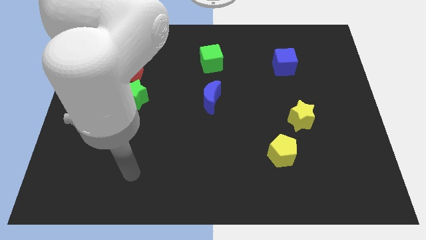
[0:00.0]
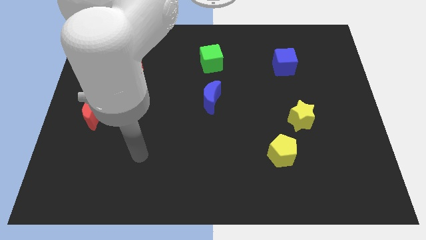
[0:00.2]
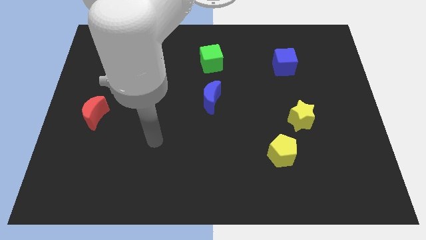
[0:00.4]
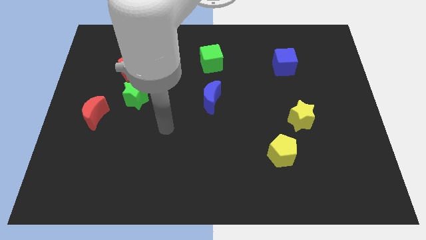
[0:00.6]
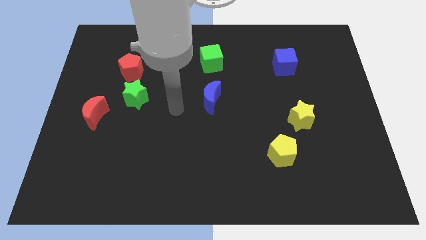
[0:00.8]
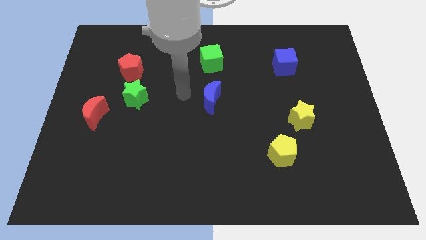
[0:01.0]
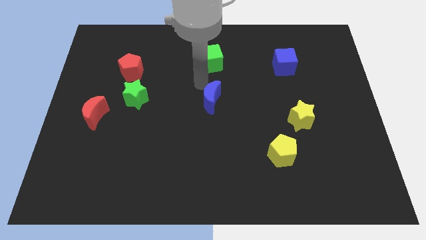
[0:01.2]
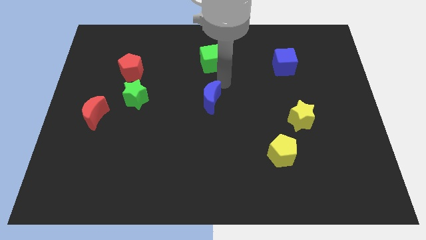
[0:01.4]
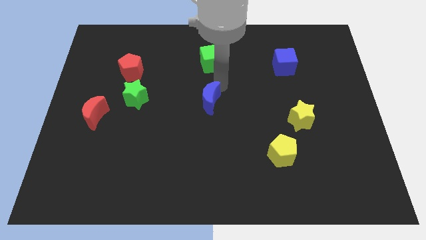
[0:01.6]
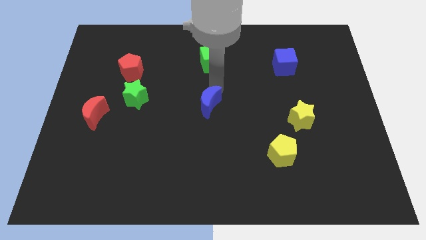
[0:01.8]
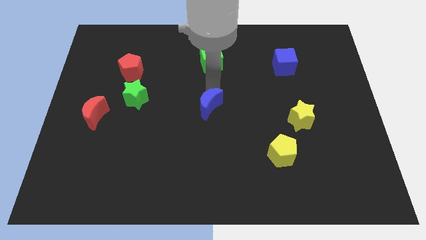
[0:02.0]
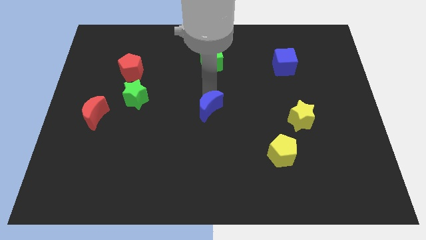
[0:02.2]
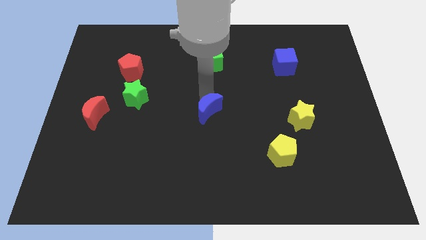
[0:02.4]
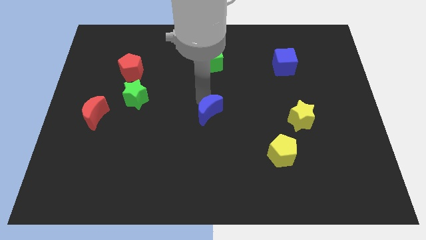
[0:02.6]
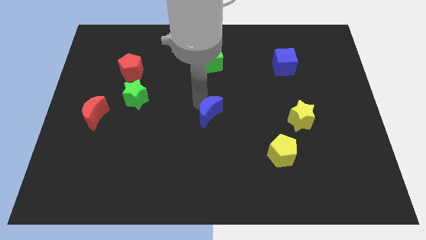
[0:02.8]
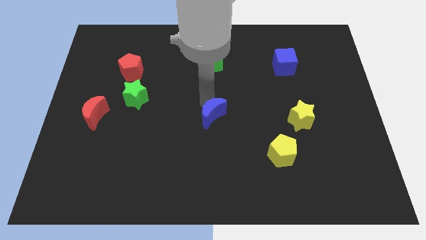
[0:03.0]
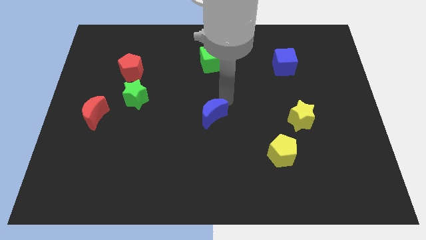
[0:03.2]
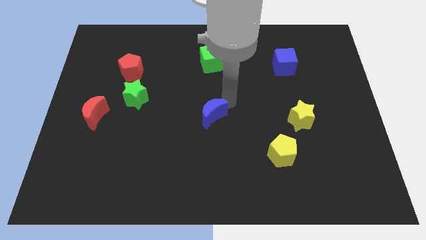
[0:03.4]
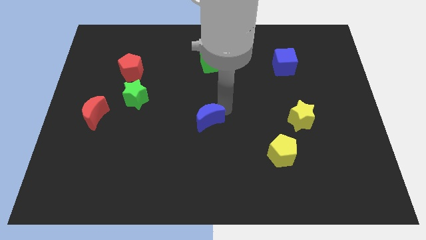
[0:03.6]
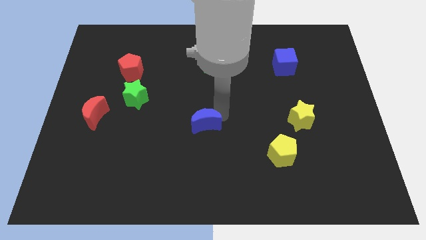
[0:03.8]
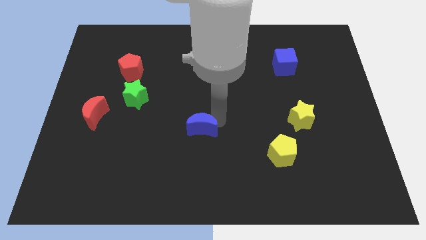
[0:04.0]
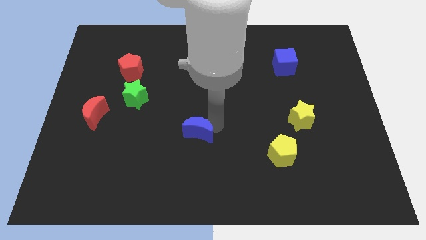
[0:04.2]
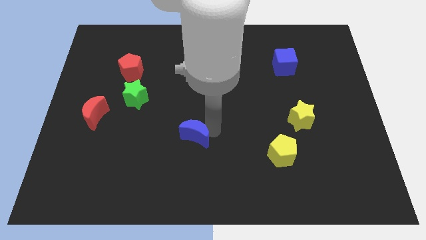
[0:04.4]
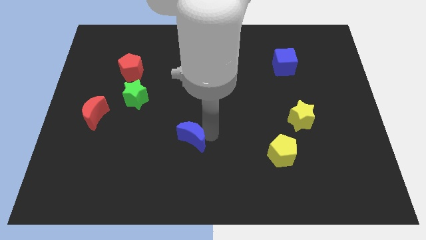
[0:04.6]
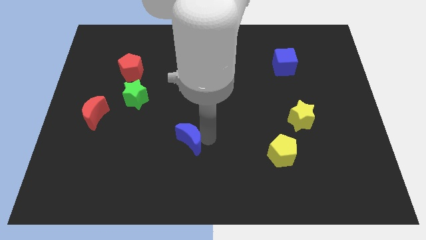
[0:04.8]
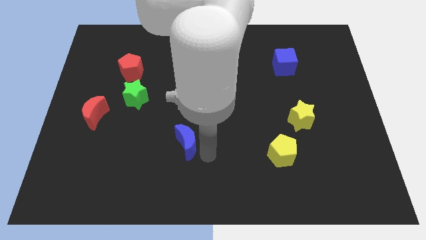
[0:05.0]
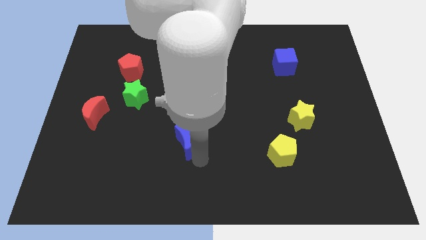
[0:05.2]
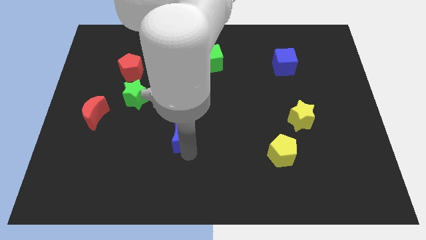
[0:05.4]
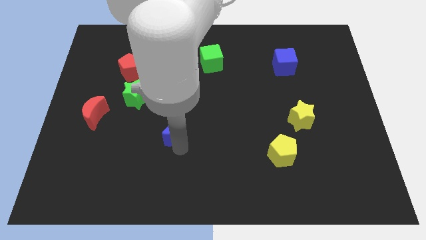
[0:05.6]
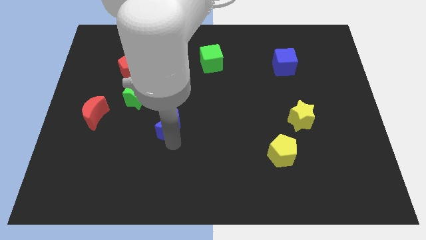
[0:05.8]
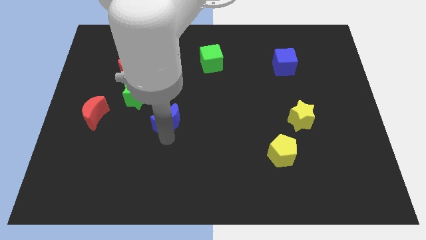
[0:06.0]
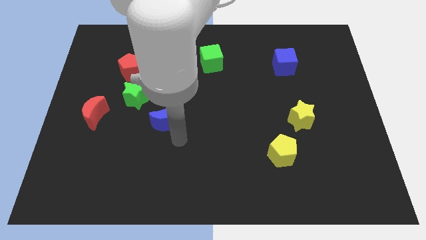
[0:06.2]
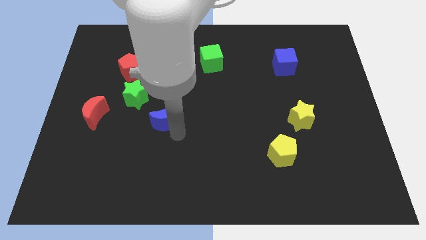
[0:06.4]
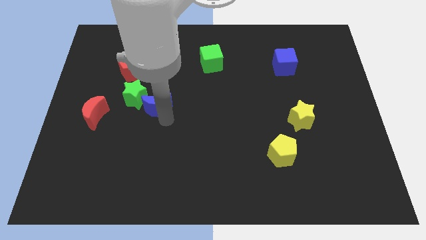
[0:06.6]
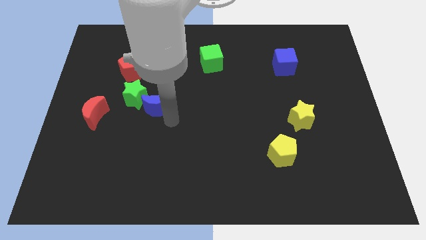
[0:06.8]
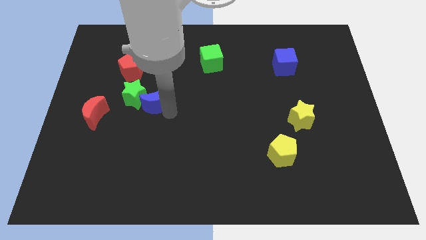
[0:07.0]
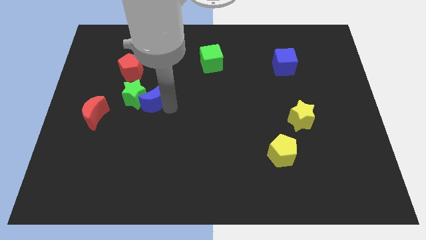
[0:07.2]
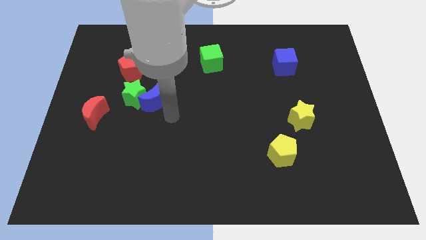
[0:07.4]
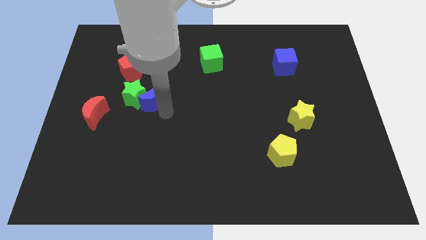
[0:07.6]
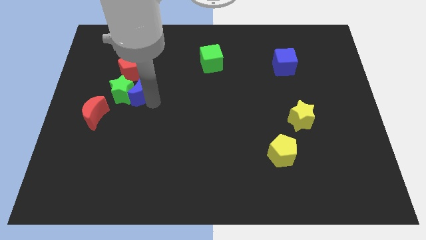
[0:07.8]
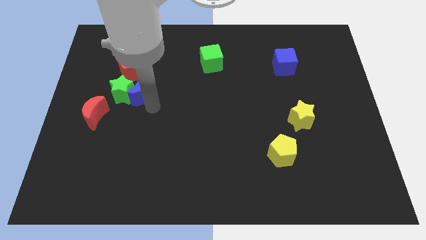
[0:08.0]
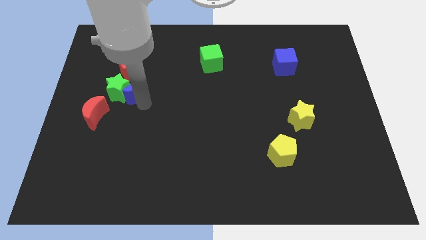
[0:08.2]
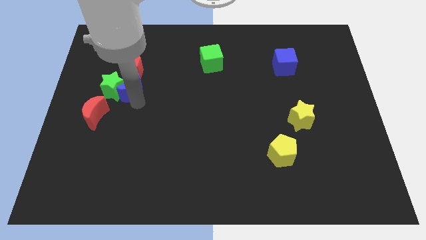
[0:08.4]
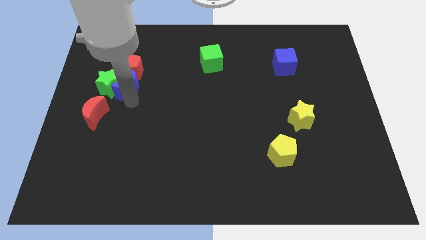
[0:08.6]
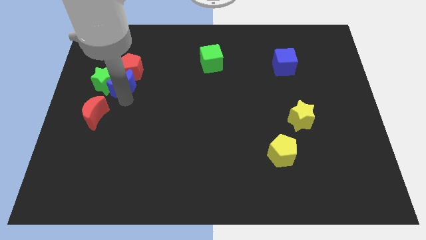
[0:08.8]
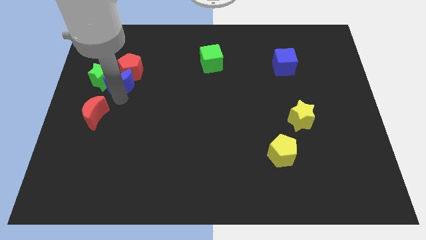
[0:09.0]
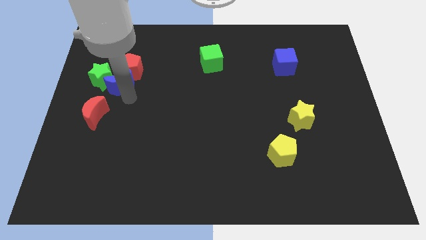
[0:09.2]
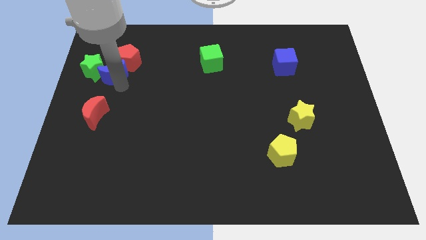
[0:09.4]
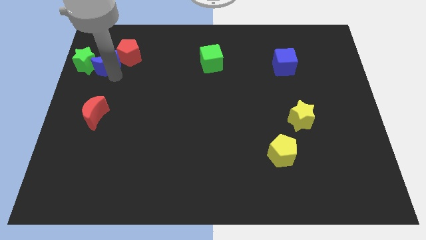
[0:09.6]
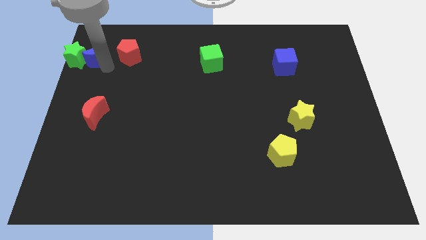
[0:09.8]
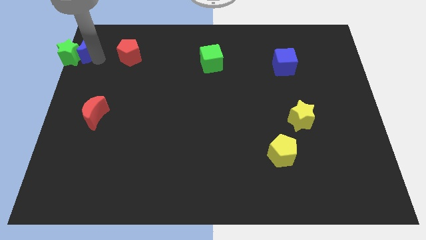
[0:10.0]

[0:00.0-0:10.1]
move the blue moon to the top left corner

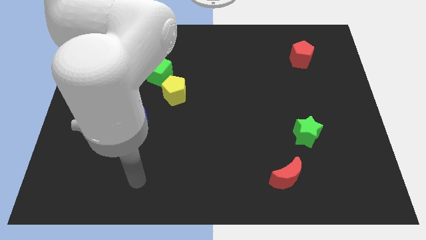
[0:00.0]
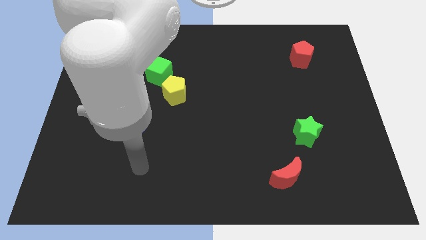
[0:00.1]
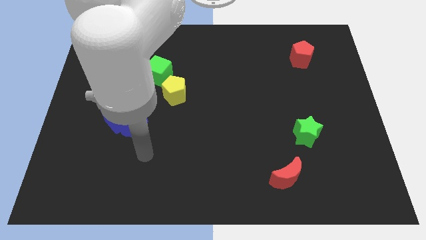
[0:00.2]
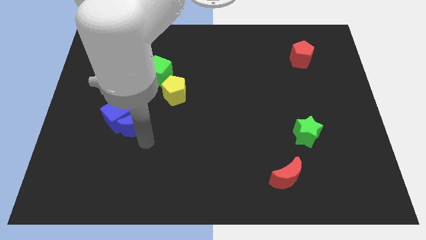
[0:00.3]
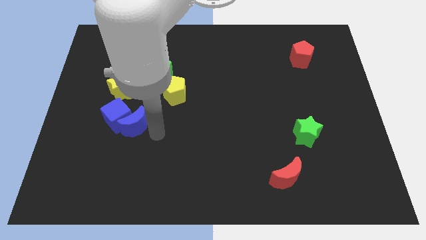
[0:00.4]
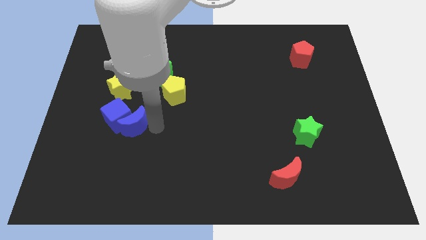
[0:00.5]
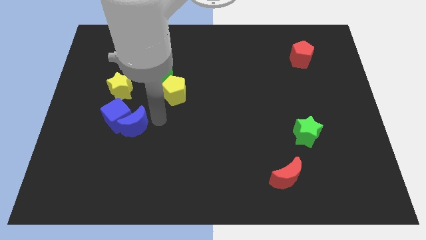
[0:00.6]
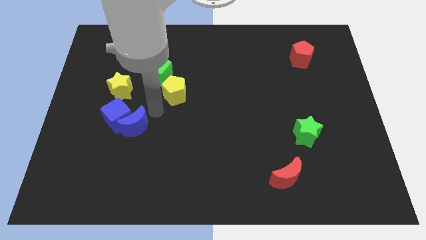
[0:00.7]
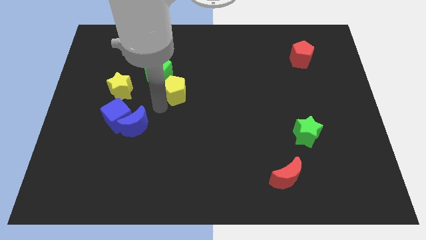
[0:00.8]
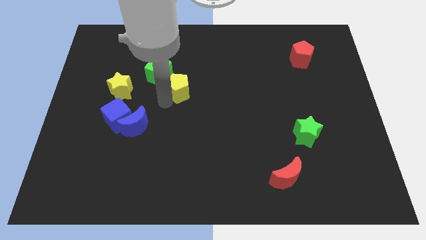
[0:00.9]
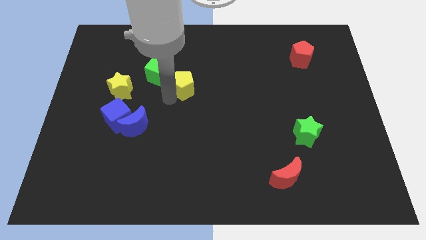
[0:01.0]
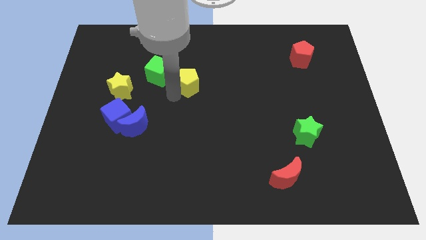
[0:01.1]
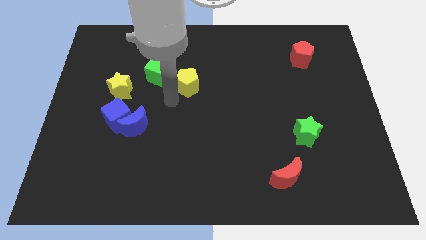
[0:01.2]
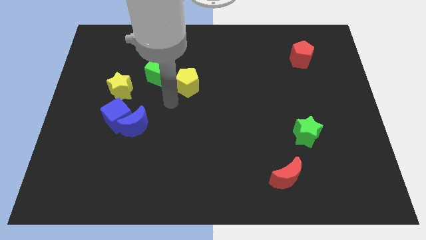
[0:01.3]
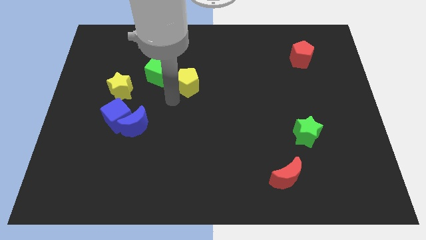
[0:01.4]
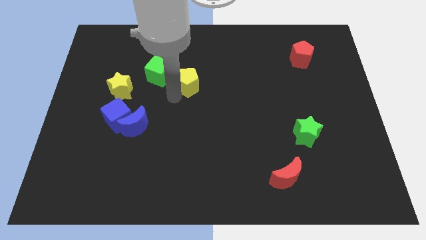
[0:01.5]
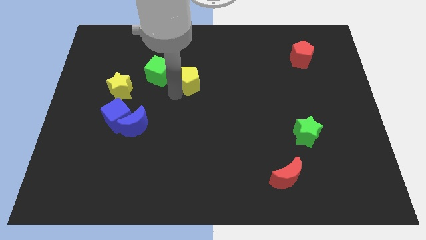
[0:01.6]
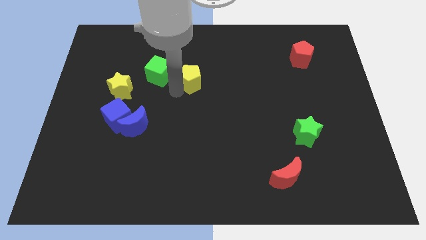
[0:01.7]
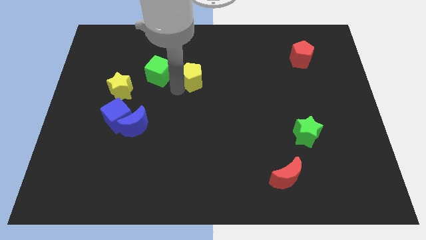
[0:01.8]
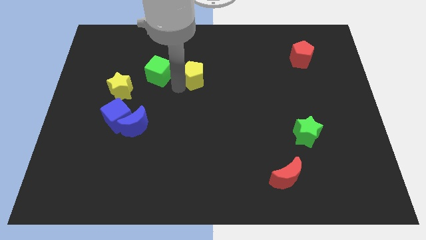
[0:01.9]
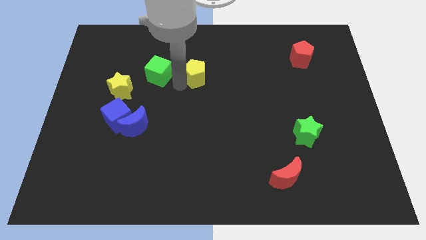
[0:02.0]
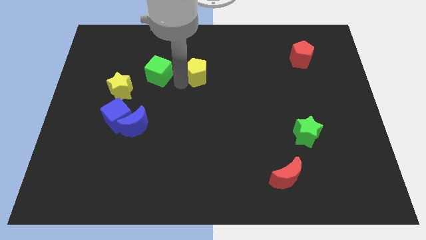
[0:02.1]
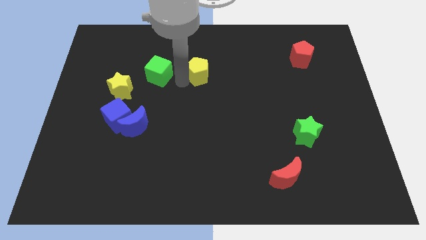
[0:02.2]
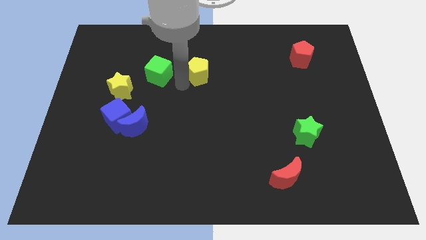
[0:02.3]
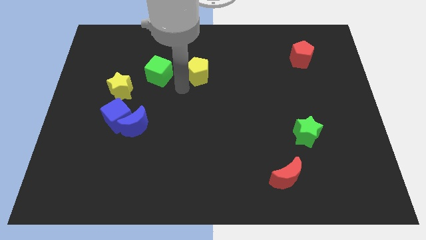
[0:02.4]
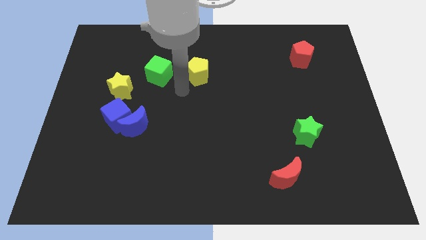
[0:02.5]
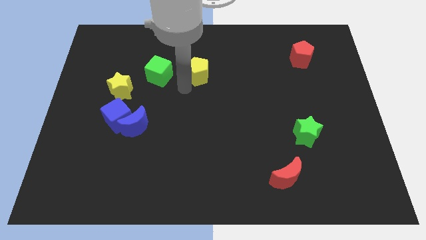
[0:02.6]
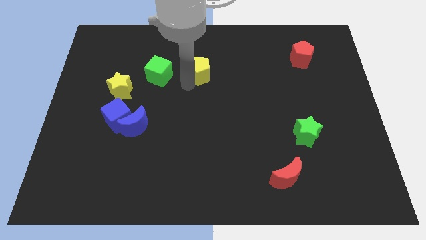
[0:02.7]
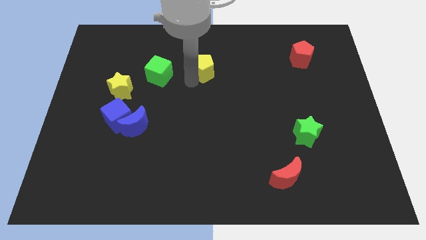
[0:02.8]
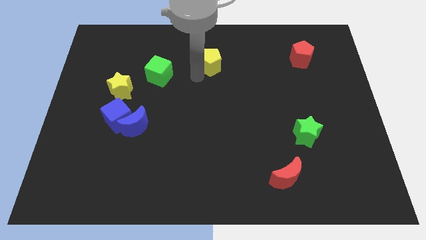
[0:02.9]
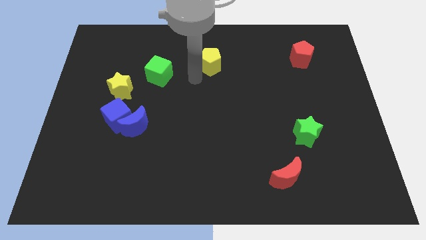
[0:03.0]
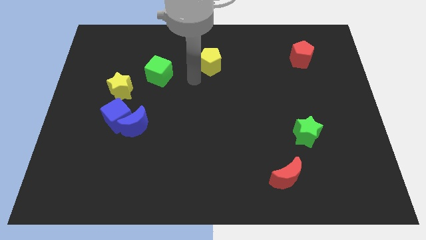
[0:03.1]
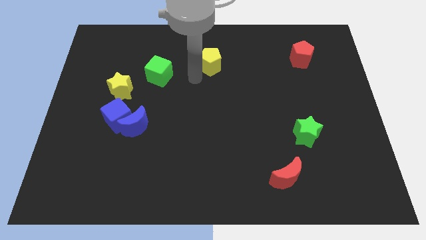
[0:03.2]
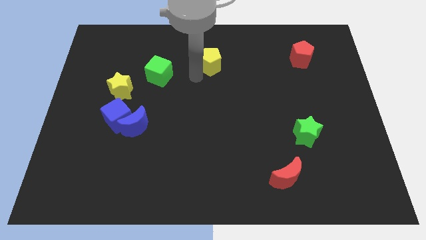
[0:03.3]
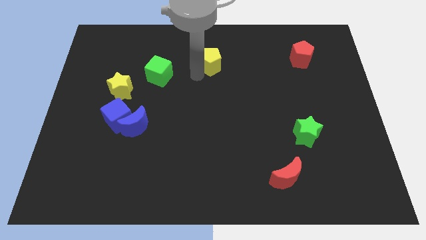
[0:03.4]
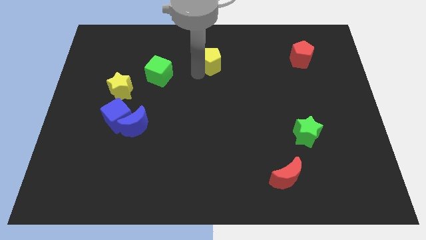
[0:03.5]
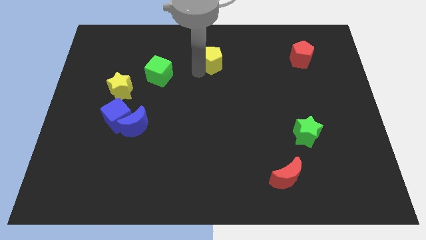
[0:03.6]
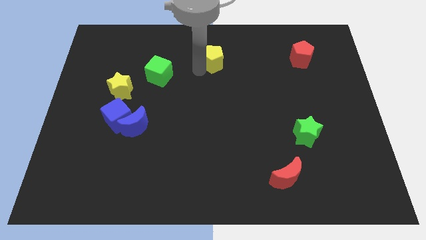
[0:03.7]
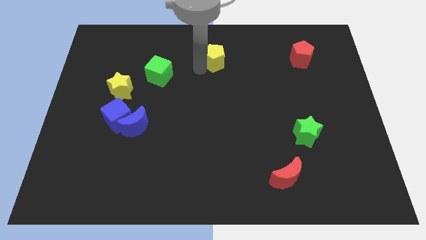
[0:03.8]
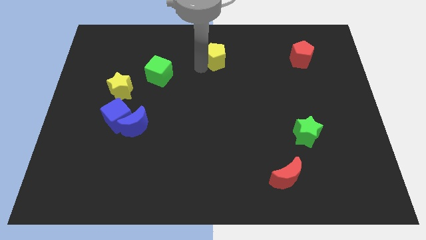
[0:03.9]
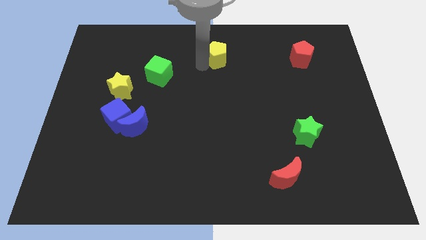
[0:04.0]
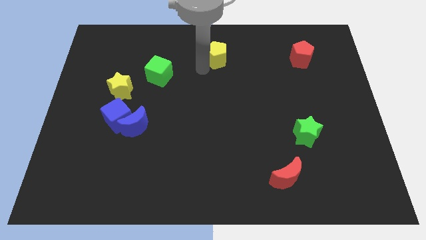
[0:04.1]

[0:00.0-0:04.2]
slide the yellow pentagon to the top side
